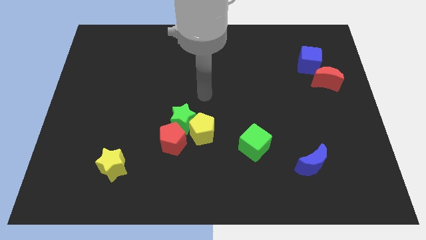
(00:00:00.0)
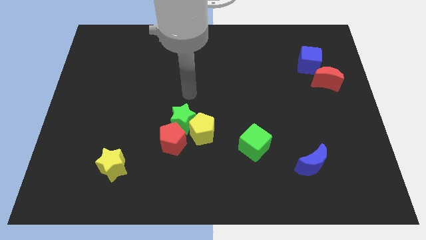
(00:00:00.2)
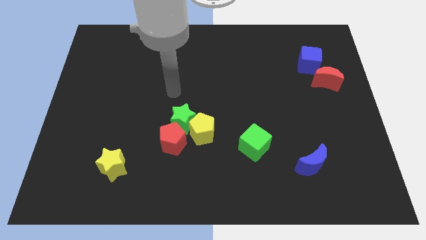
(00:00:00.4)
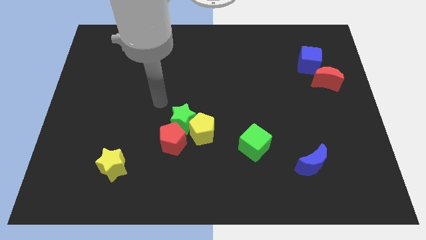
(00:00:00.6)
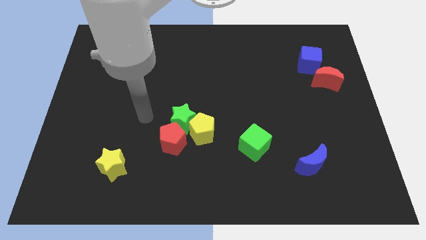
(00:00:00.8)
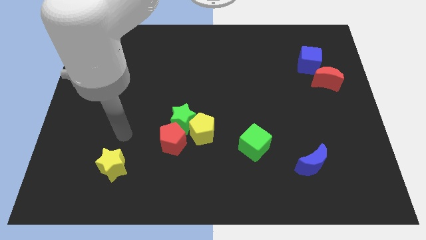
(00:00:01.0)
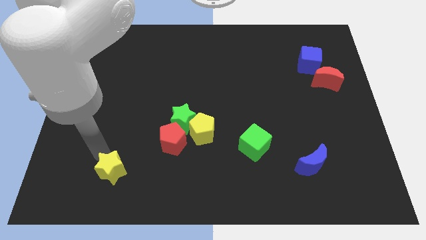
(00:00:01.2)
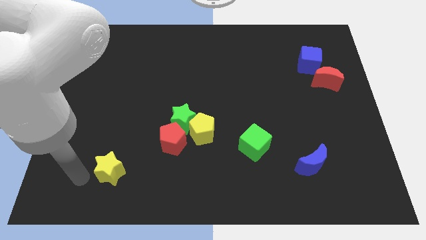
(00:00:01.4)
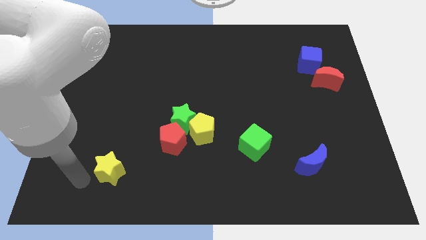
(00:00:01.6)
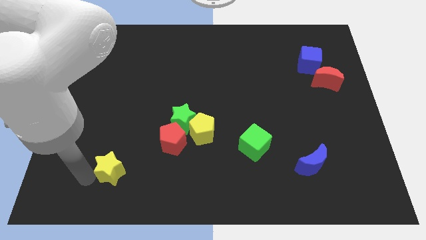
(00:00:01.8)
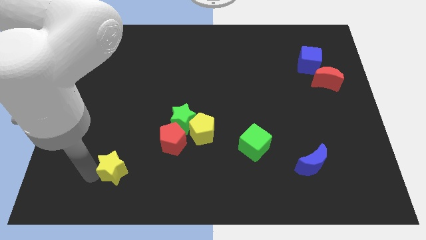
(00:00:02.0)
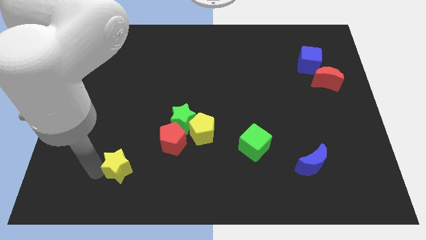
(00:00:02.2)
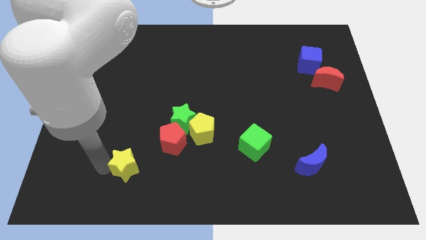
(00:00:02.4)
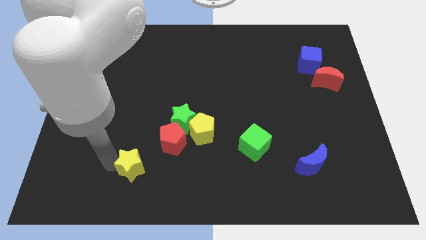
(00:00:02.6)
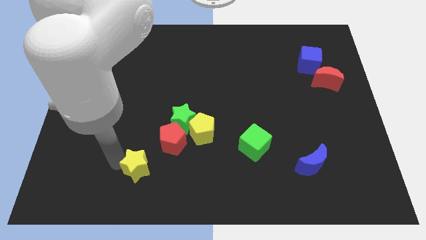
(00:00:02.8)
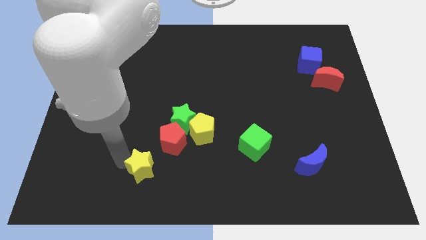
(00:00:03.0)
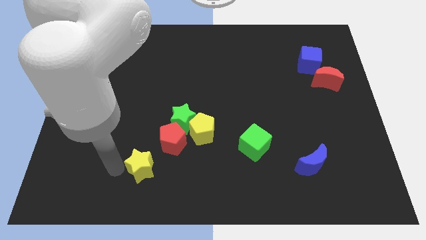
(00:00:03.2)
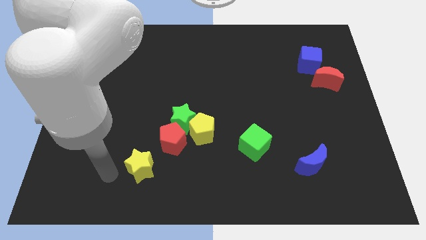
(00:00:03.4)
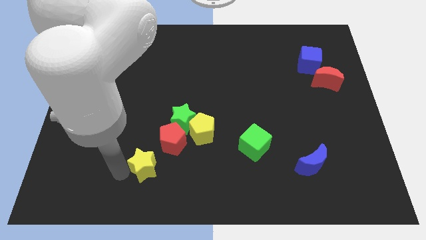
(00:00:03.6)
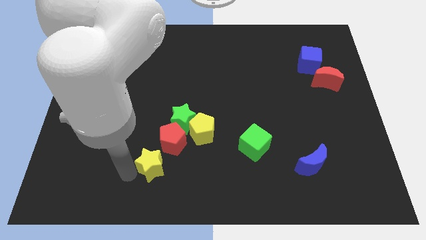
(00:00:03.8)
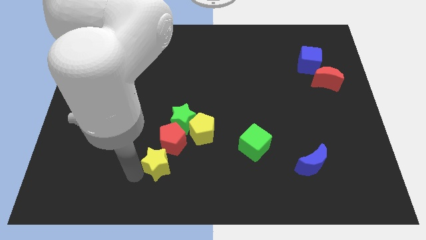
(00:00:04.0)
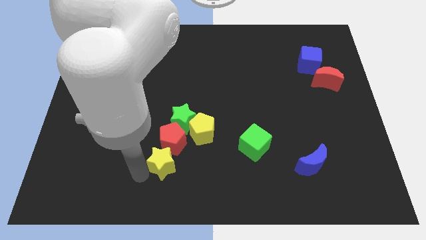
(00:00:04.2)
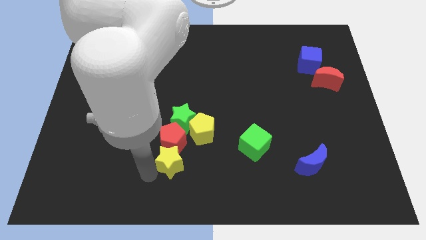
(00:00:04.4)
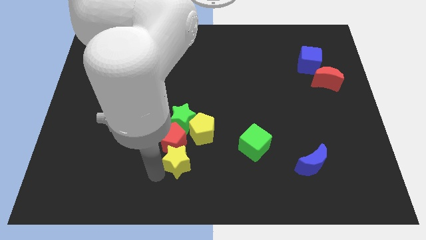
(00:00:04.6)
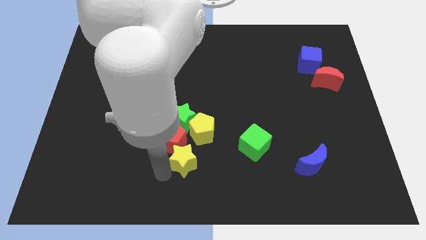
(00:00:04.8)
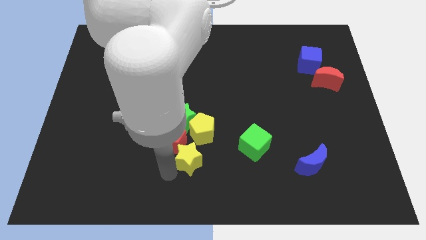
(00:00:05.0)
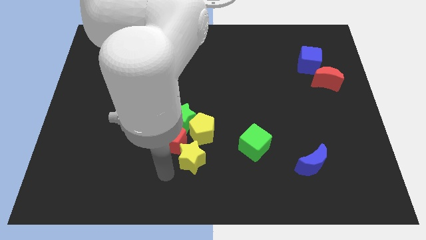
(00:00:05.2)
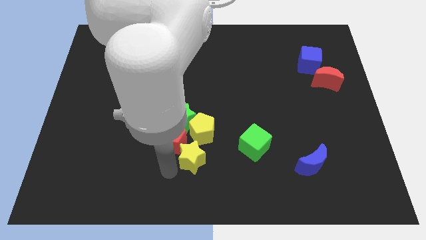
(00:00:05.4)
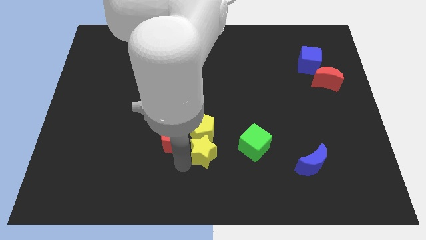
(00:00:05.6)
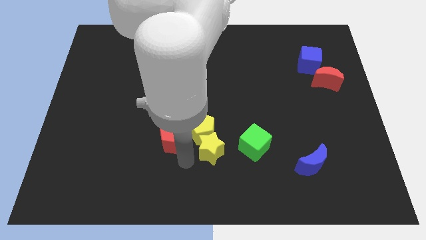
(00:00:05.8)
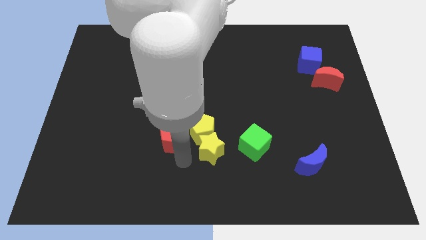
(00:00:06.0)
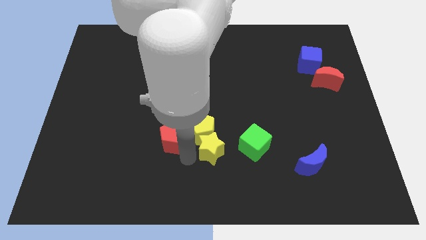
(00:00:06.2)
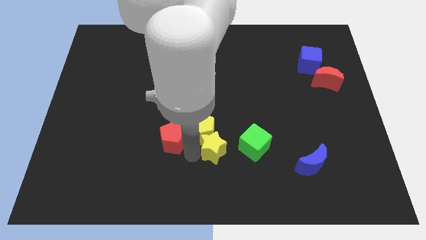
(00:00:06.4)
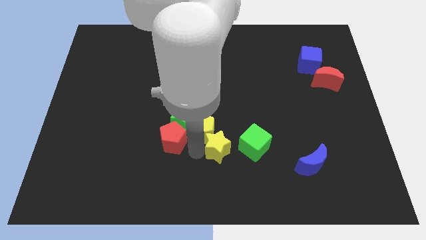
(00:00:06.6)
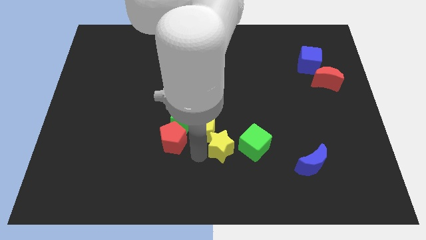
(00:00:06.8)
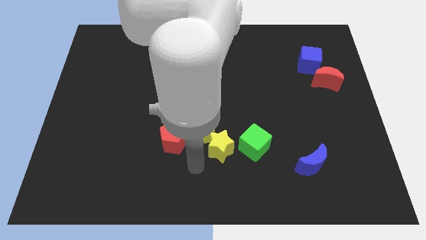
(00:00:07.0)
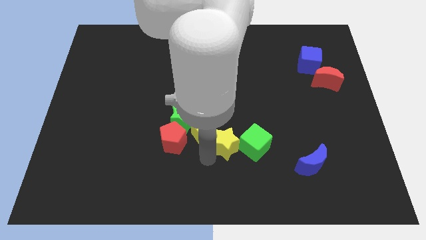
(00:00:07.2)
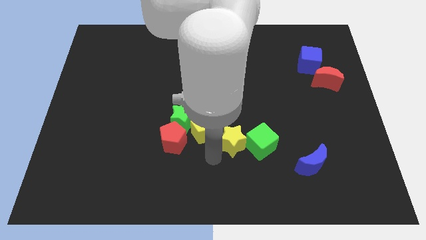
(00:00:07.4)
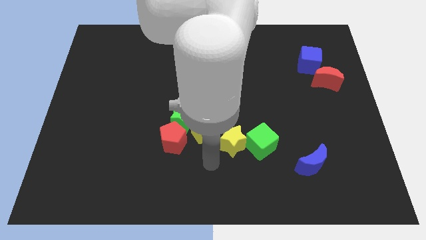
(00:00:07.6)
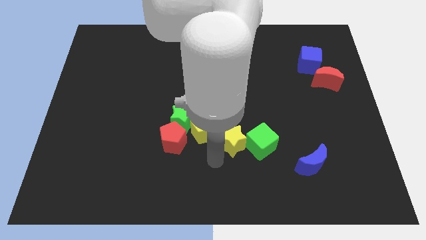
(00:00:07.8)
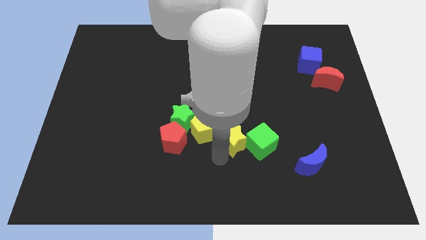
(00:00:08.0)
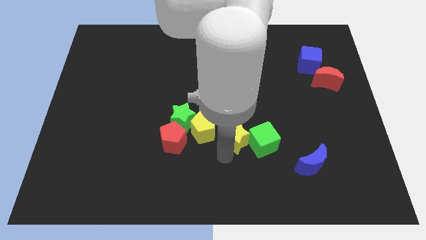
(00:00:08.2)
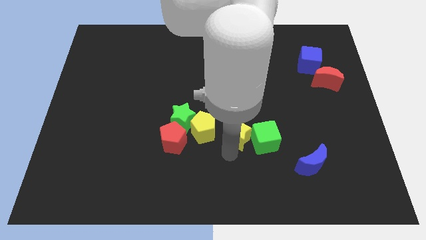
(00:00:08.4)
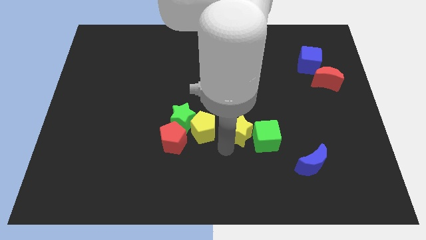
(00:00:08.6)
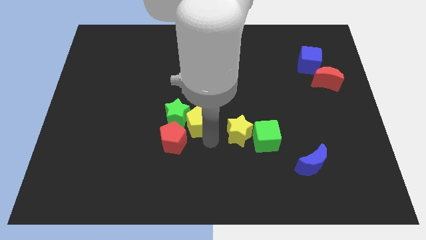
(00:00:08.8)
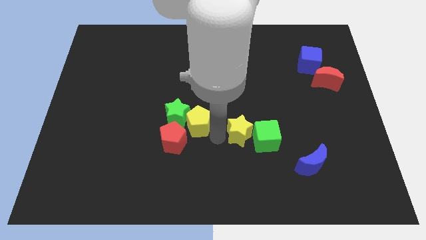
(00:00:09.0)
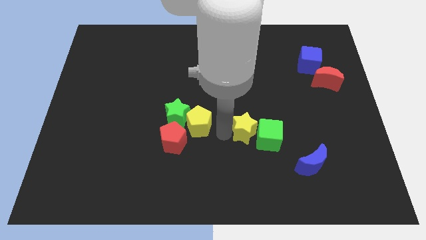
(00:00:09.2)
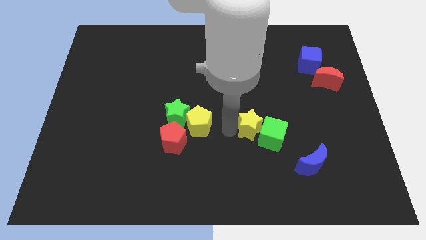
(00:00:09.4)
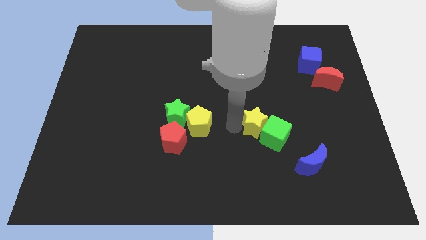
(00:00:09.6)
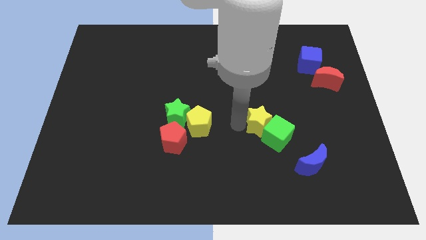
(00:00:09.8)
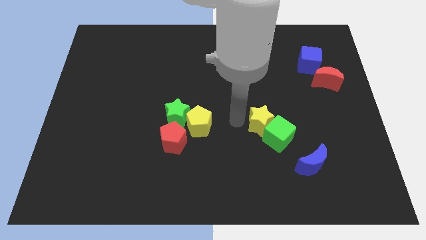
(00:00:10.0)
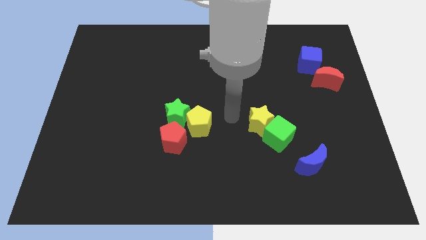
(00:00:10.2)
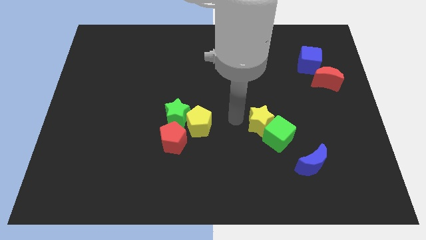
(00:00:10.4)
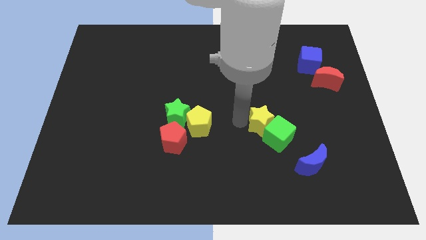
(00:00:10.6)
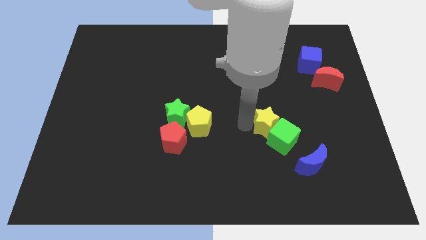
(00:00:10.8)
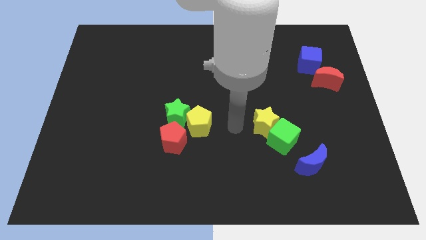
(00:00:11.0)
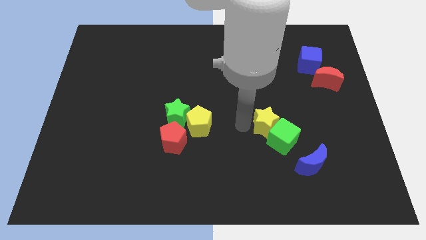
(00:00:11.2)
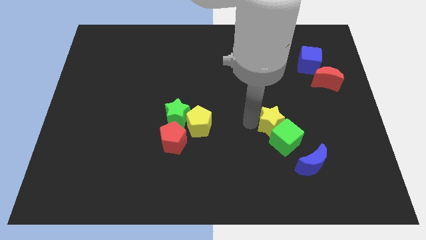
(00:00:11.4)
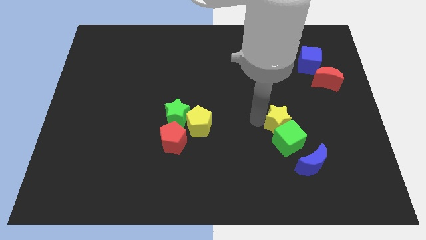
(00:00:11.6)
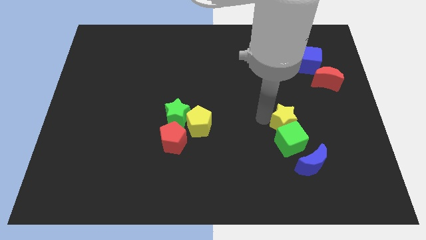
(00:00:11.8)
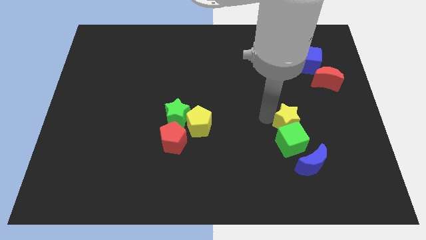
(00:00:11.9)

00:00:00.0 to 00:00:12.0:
put the yellow star to the top side of the blue moon
